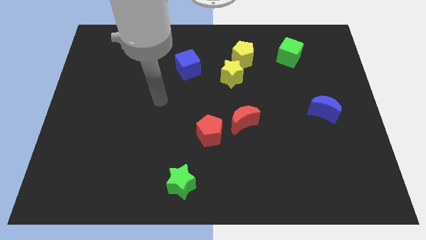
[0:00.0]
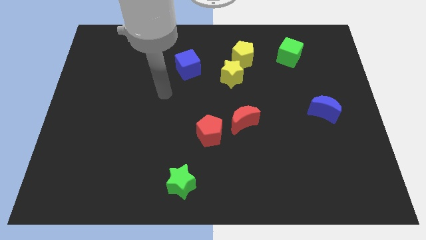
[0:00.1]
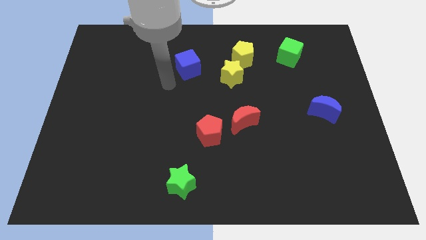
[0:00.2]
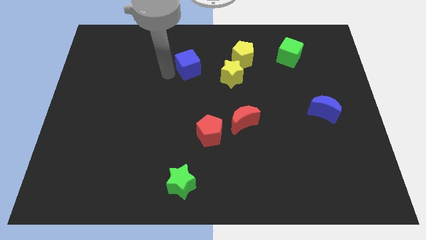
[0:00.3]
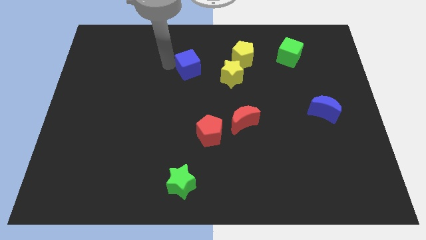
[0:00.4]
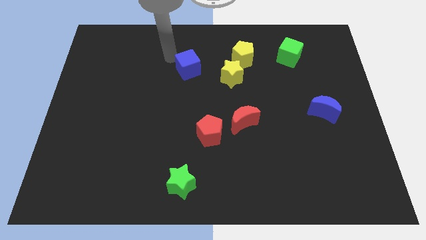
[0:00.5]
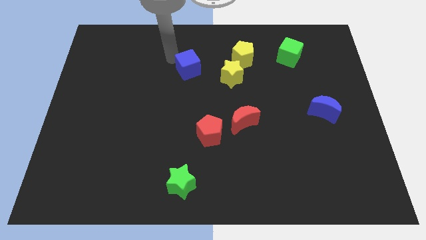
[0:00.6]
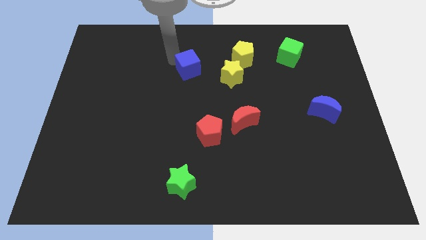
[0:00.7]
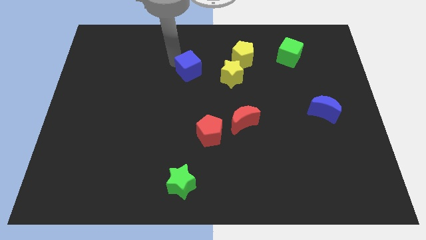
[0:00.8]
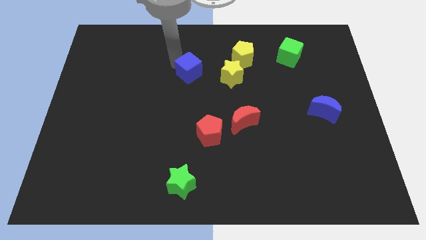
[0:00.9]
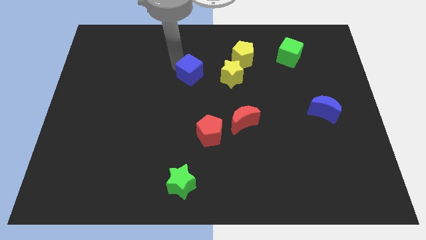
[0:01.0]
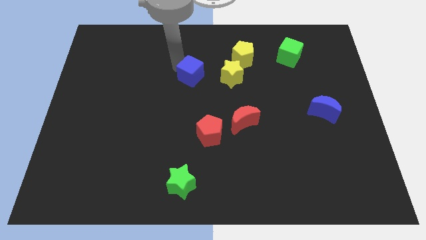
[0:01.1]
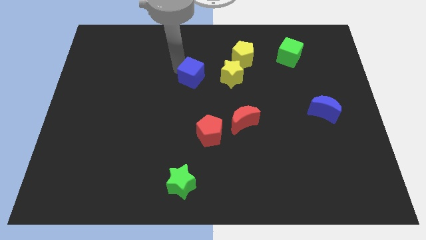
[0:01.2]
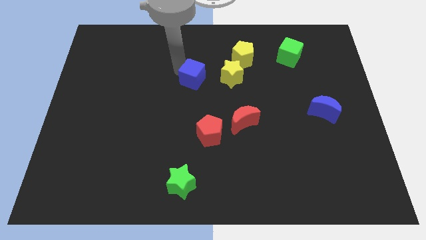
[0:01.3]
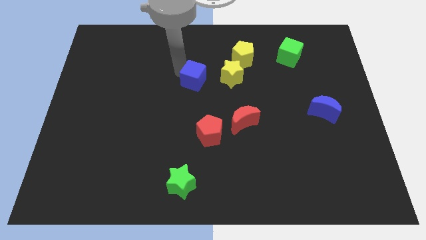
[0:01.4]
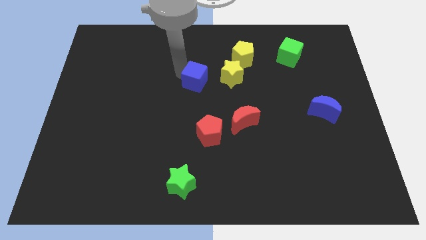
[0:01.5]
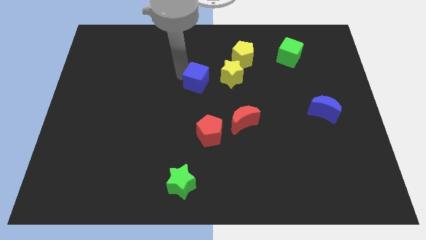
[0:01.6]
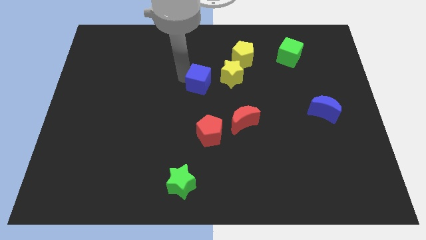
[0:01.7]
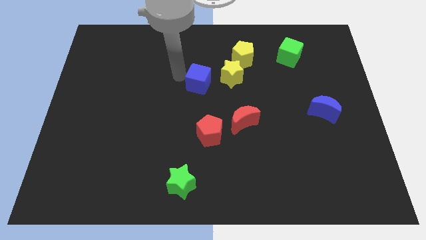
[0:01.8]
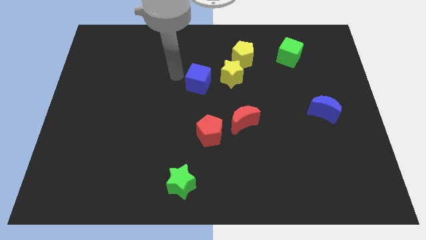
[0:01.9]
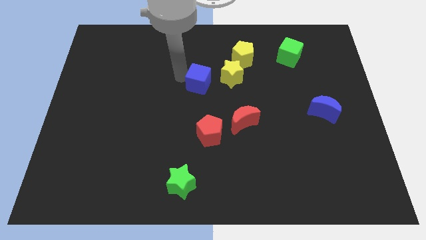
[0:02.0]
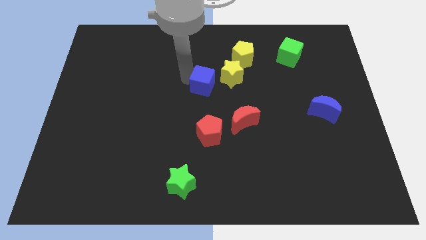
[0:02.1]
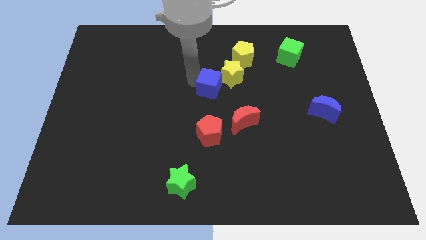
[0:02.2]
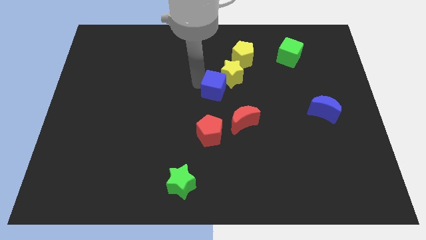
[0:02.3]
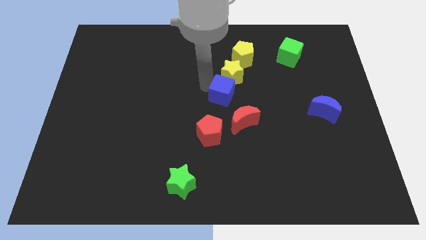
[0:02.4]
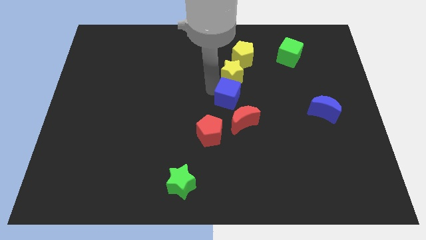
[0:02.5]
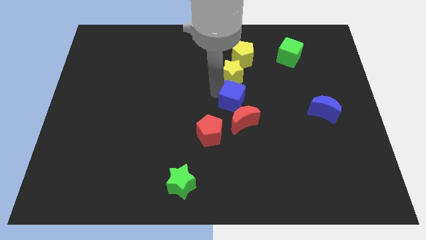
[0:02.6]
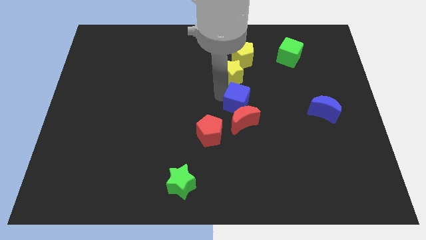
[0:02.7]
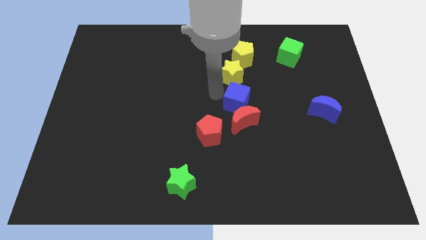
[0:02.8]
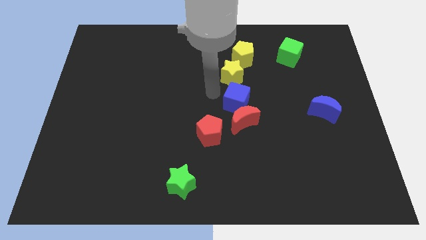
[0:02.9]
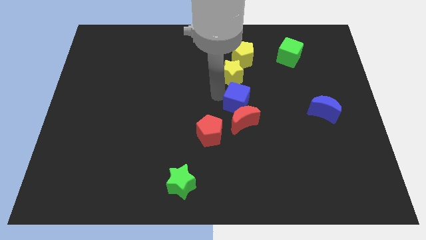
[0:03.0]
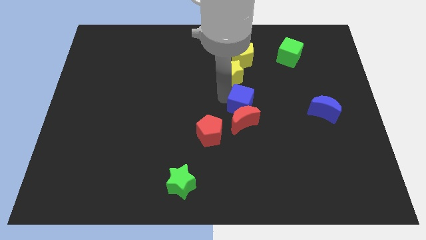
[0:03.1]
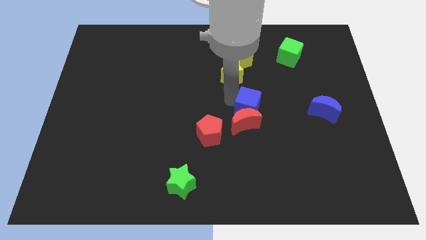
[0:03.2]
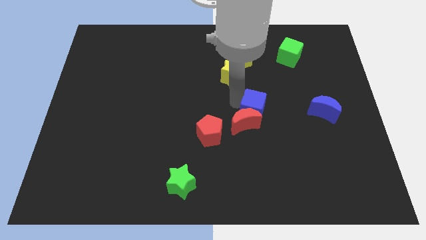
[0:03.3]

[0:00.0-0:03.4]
slide the blue cube diagonally down and right

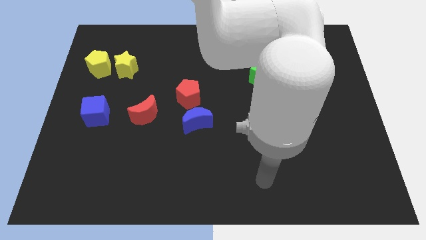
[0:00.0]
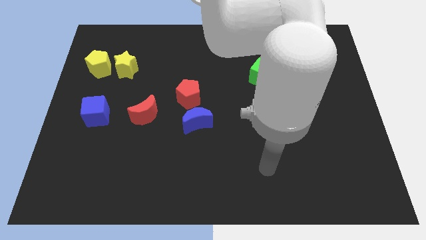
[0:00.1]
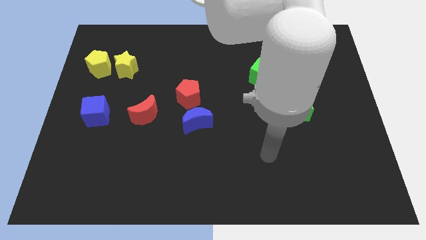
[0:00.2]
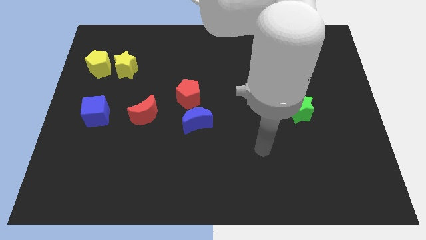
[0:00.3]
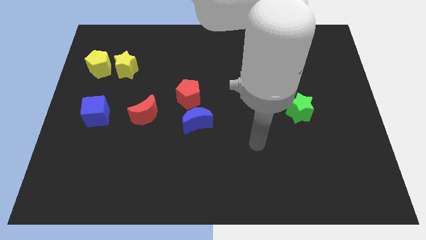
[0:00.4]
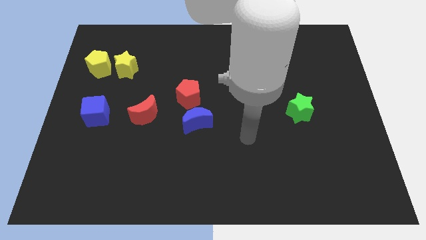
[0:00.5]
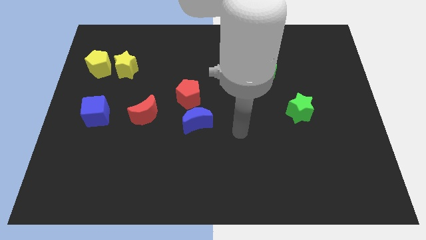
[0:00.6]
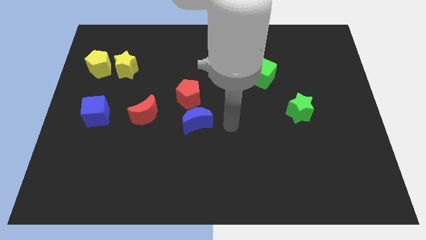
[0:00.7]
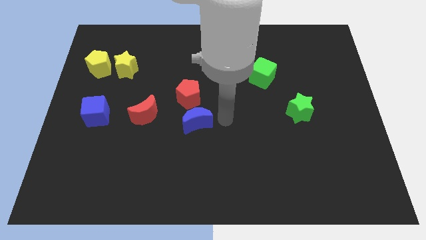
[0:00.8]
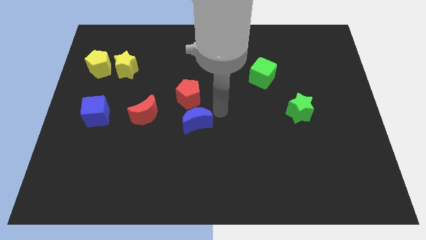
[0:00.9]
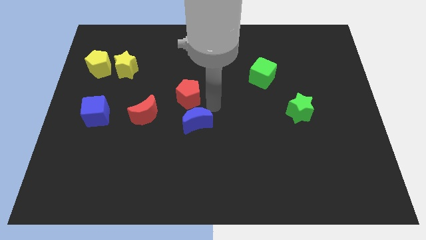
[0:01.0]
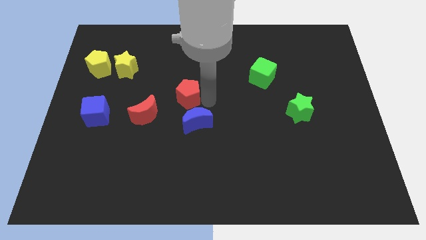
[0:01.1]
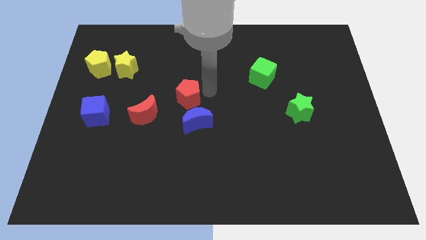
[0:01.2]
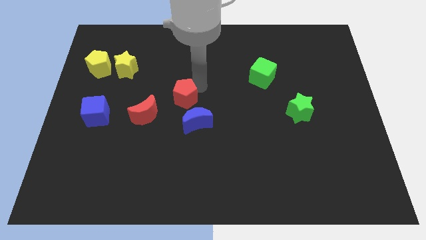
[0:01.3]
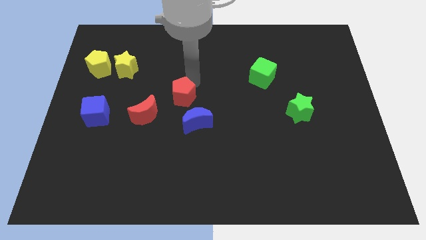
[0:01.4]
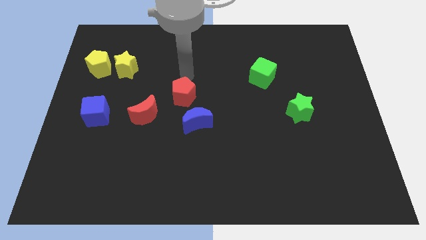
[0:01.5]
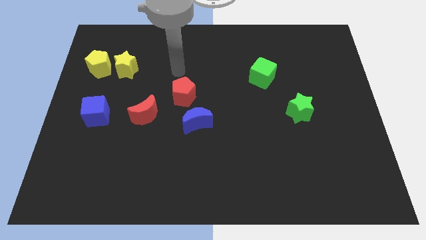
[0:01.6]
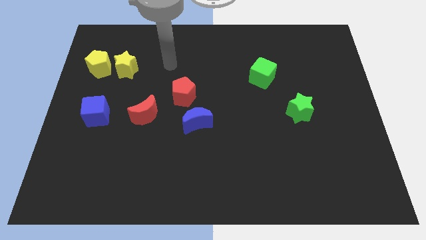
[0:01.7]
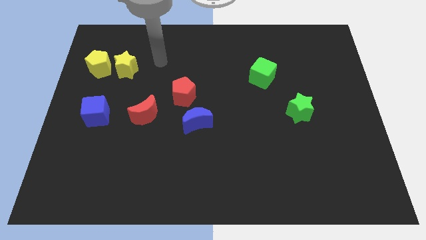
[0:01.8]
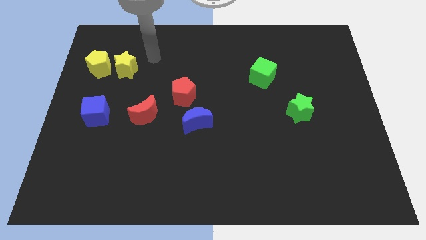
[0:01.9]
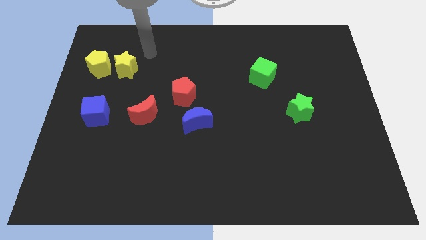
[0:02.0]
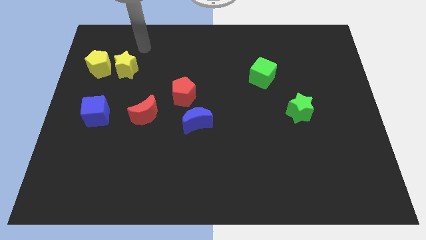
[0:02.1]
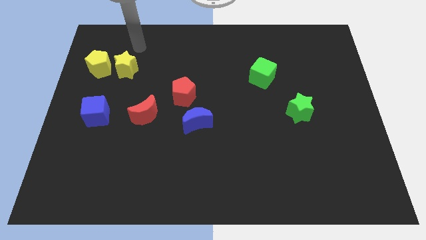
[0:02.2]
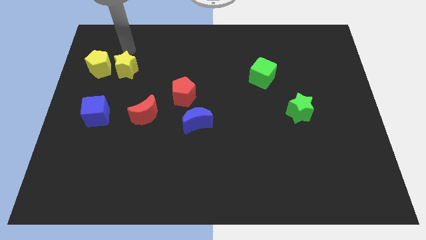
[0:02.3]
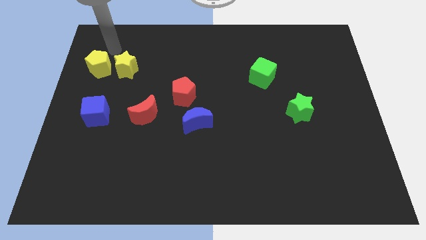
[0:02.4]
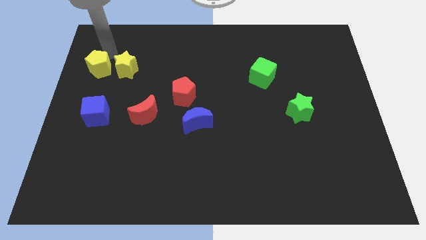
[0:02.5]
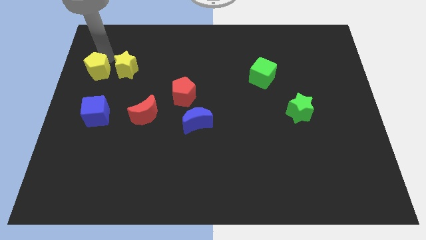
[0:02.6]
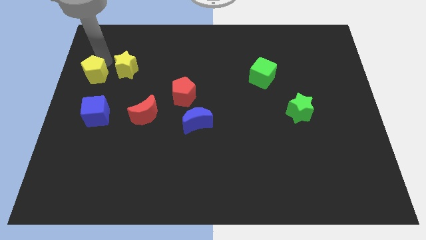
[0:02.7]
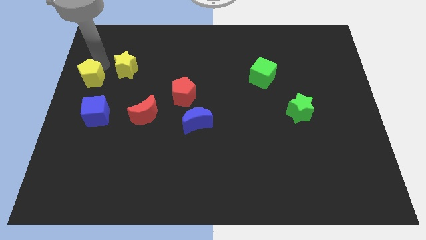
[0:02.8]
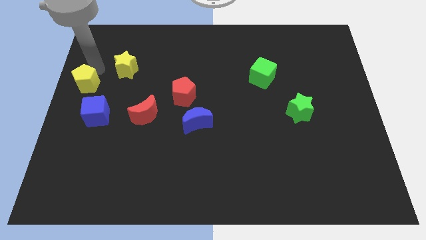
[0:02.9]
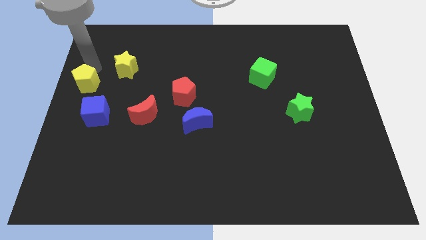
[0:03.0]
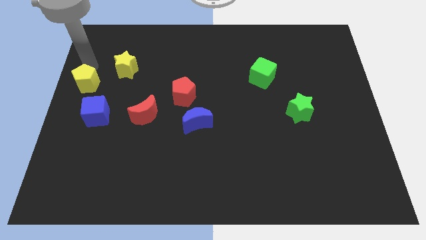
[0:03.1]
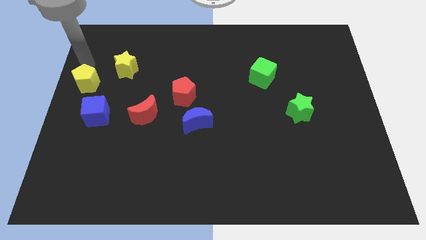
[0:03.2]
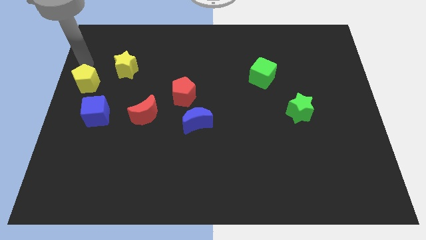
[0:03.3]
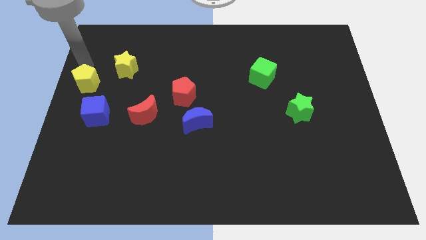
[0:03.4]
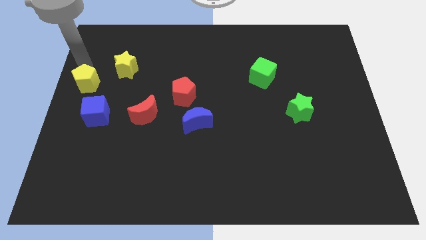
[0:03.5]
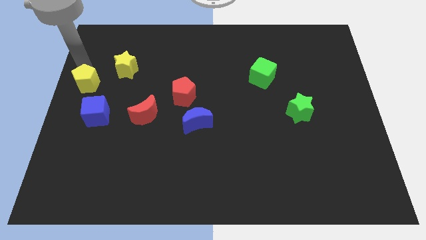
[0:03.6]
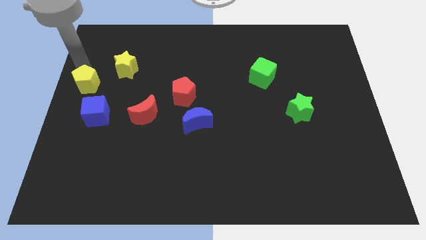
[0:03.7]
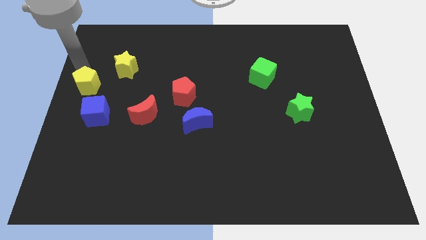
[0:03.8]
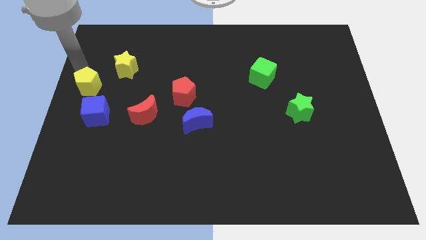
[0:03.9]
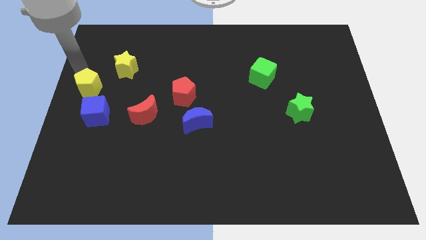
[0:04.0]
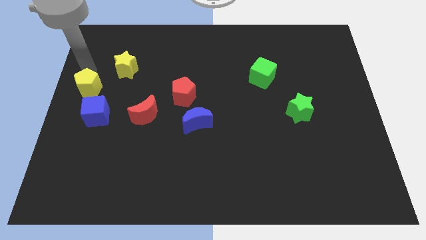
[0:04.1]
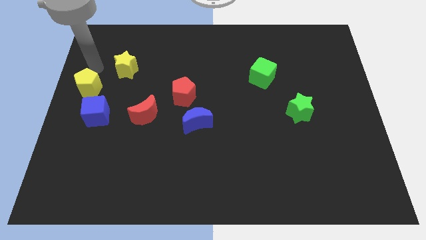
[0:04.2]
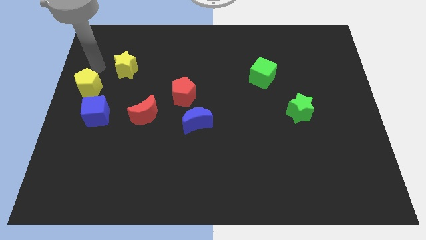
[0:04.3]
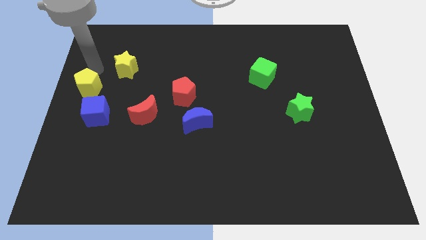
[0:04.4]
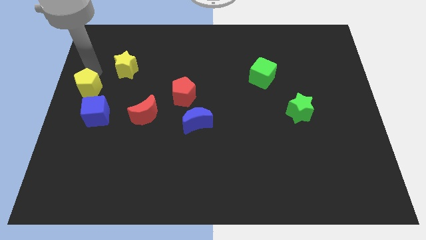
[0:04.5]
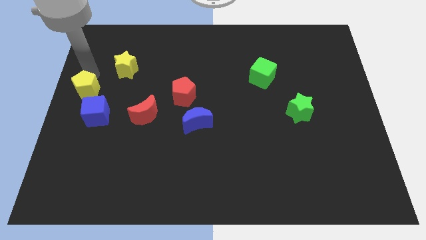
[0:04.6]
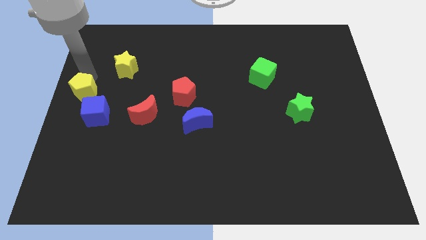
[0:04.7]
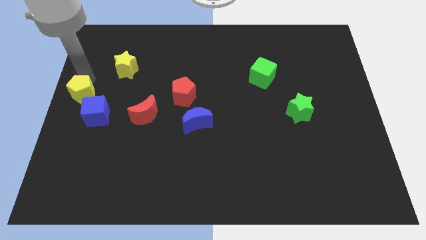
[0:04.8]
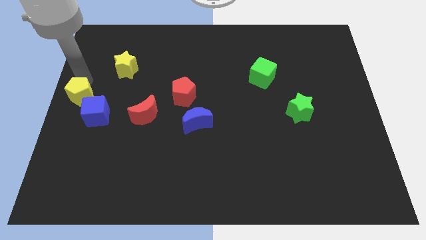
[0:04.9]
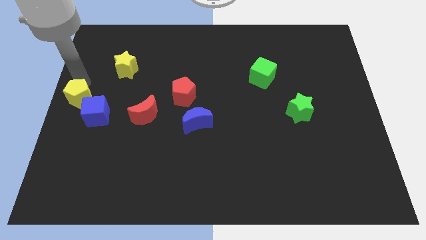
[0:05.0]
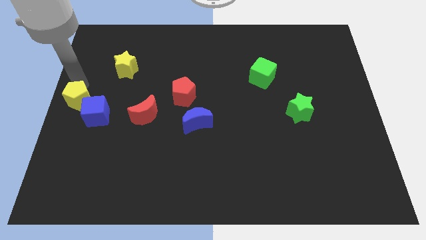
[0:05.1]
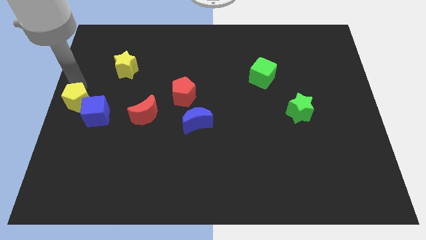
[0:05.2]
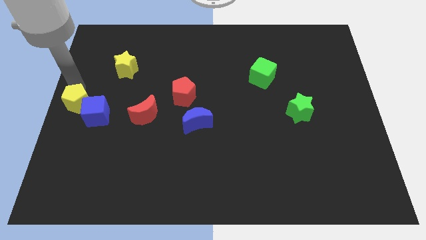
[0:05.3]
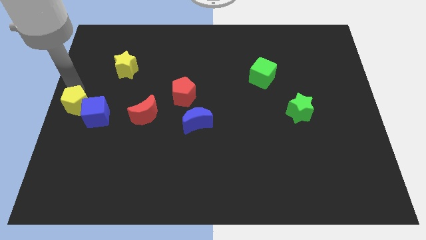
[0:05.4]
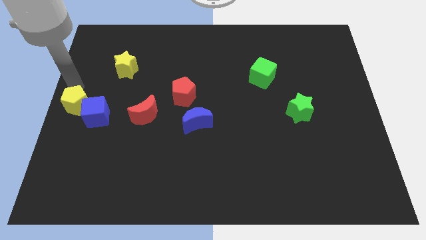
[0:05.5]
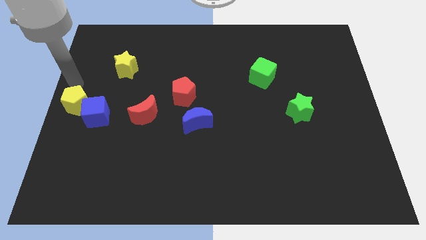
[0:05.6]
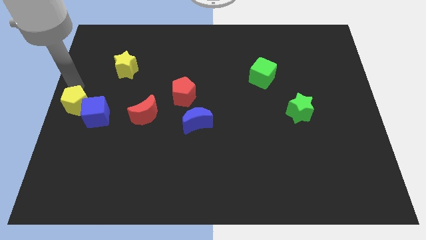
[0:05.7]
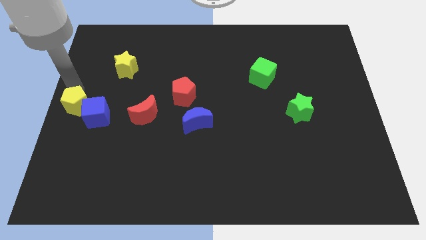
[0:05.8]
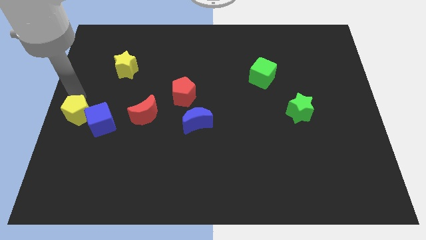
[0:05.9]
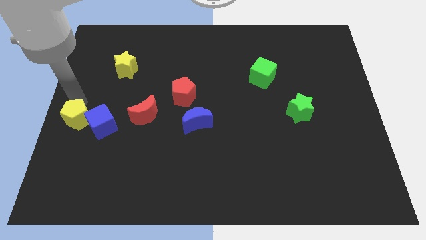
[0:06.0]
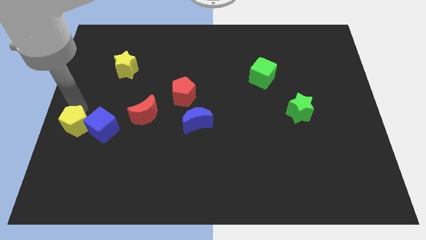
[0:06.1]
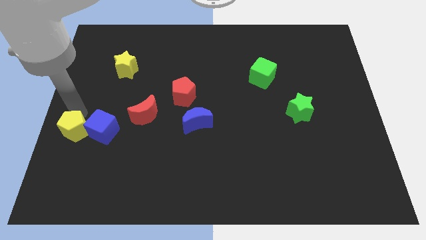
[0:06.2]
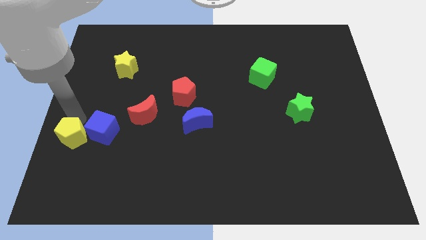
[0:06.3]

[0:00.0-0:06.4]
move the yellow pentagon downwards
